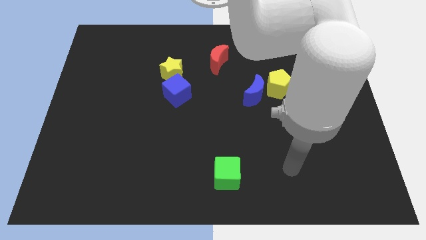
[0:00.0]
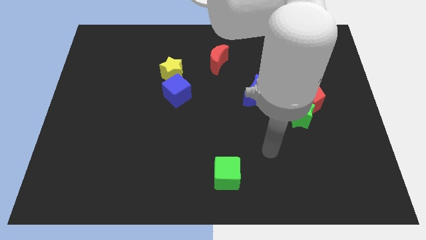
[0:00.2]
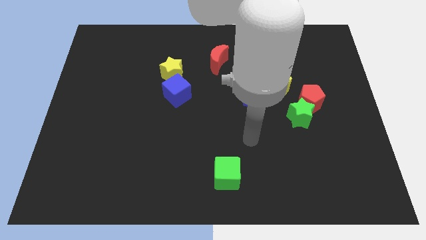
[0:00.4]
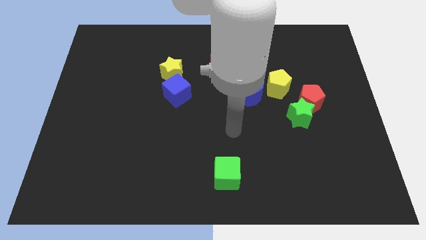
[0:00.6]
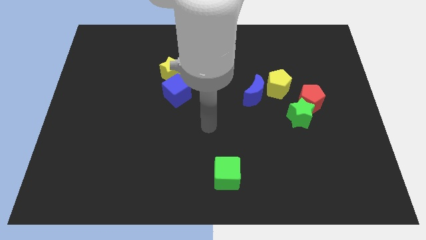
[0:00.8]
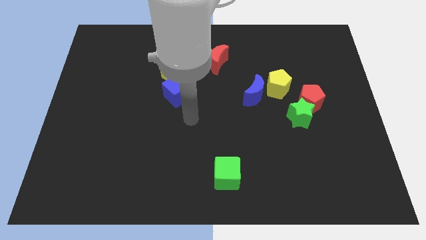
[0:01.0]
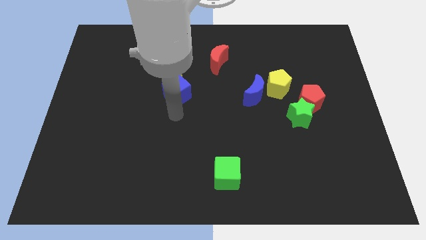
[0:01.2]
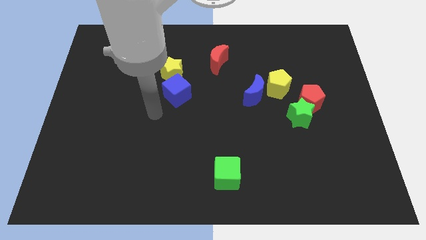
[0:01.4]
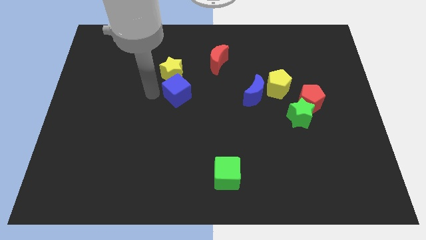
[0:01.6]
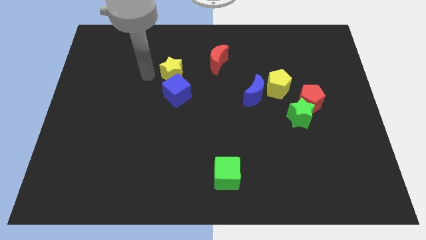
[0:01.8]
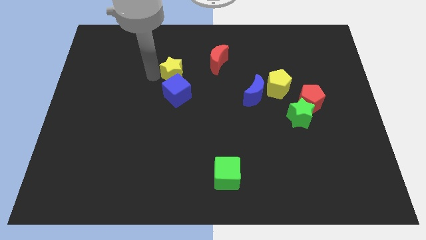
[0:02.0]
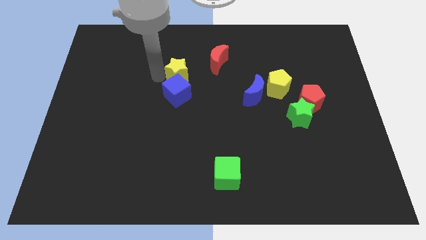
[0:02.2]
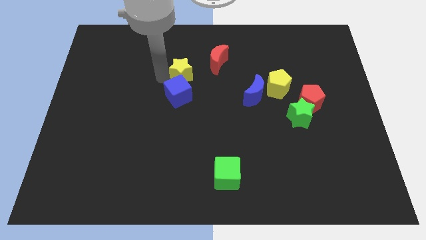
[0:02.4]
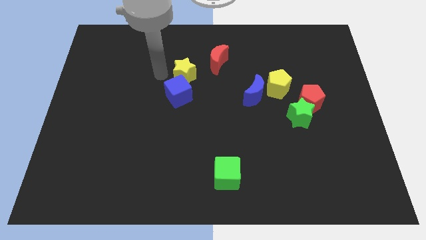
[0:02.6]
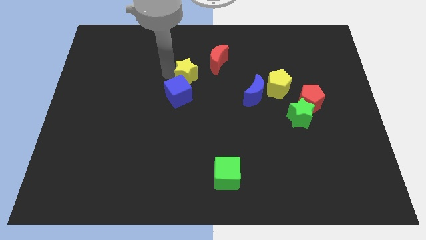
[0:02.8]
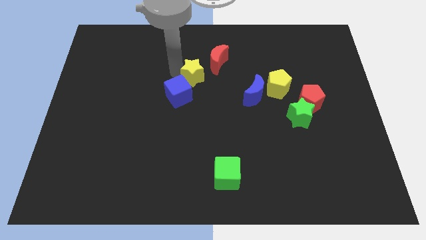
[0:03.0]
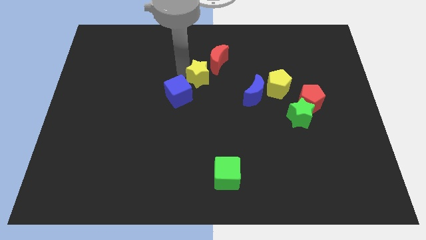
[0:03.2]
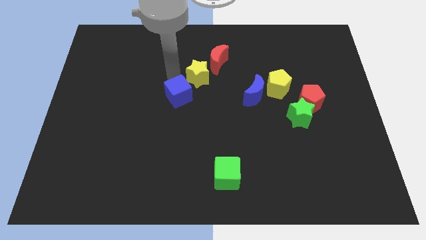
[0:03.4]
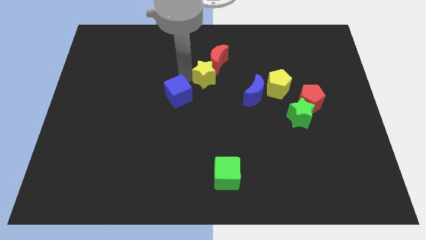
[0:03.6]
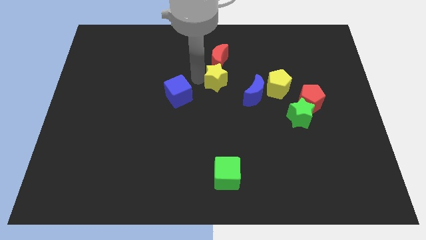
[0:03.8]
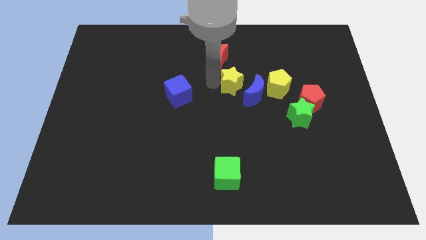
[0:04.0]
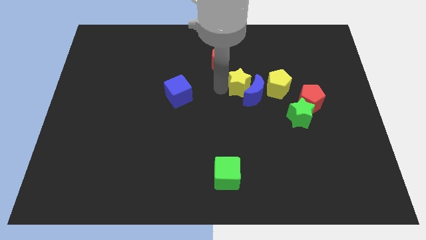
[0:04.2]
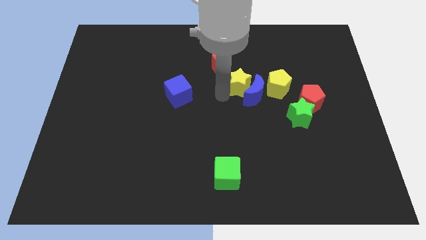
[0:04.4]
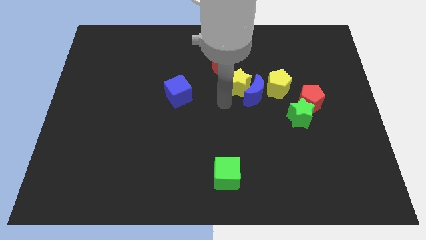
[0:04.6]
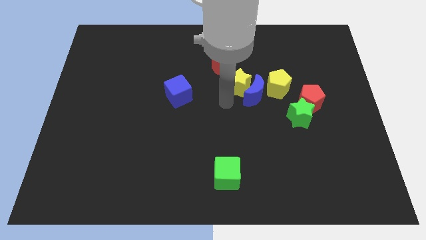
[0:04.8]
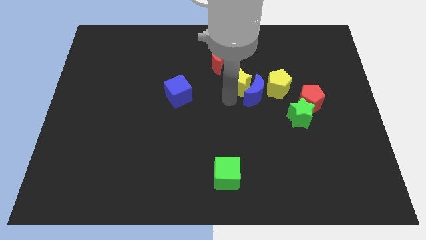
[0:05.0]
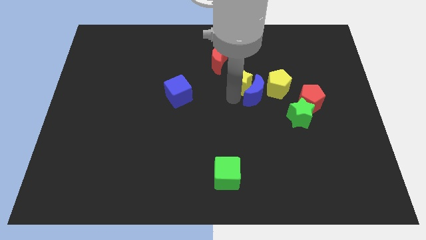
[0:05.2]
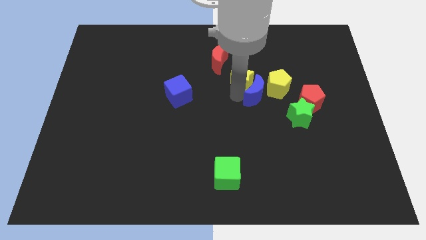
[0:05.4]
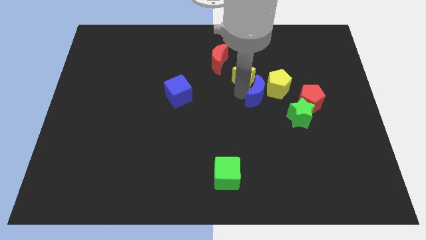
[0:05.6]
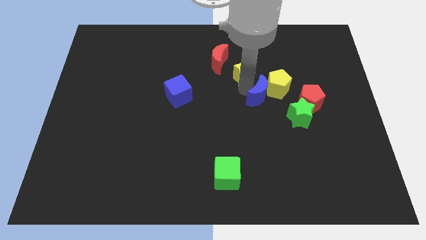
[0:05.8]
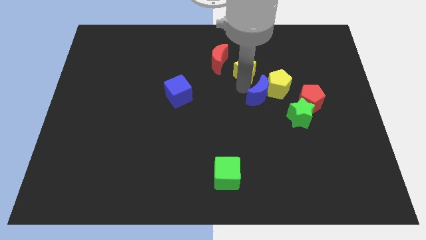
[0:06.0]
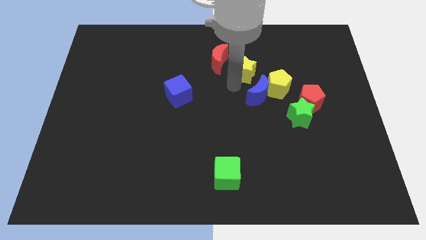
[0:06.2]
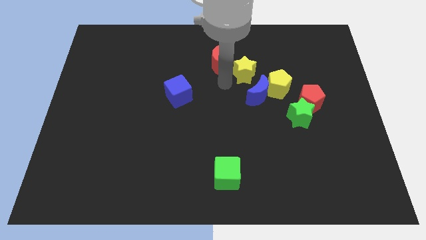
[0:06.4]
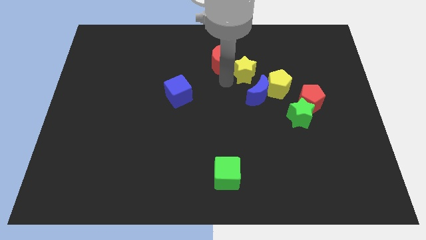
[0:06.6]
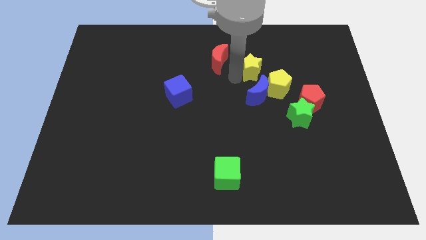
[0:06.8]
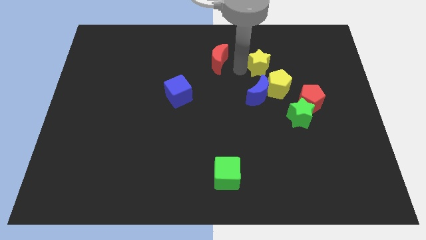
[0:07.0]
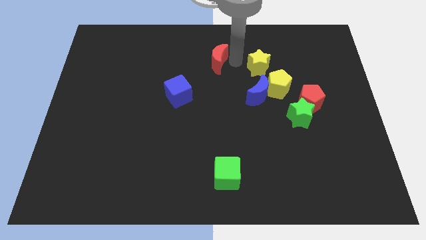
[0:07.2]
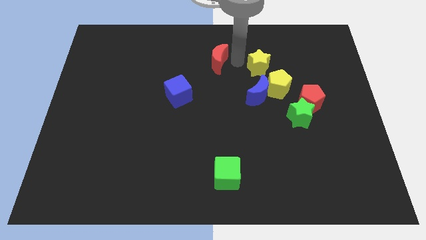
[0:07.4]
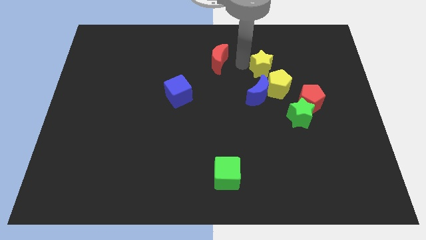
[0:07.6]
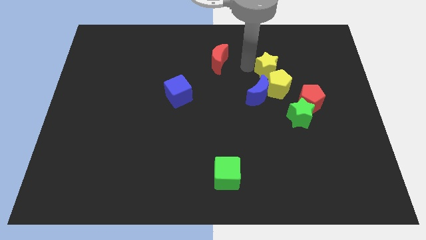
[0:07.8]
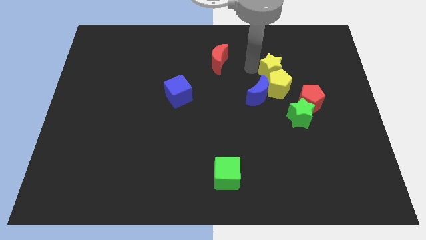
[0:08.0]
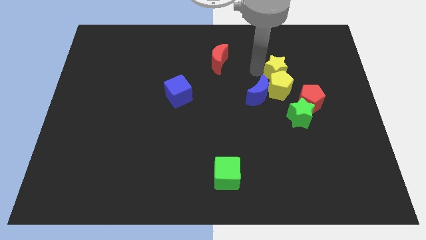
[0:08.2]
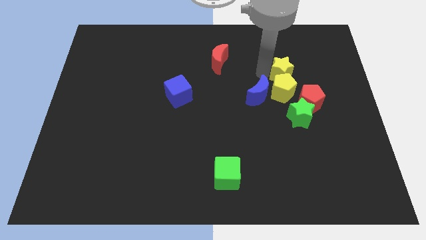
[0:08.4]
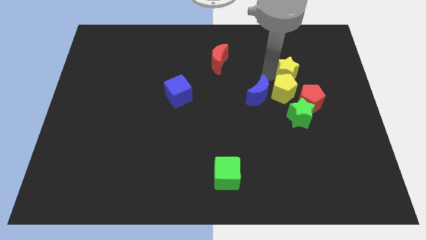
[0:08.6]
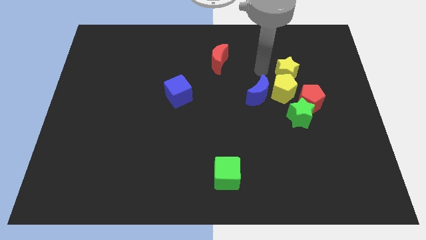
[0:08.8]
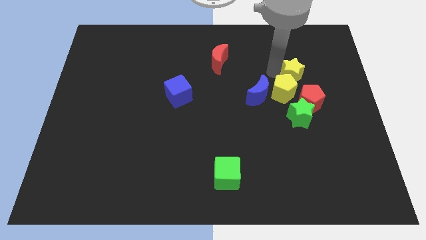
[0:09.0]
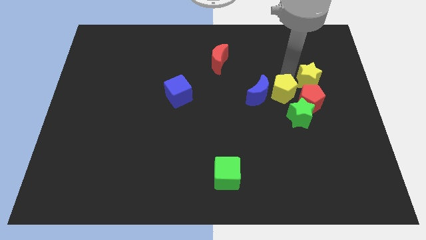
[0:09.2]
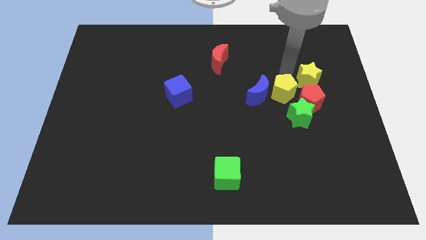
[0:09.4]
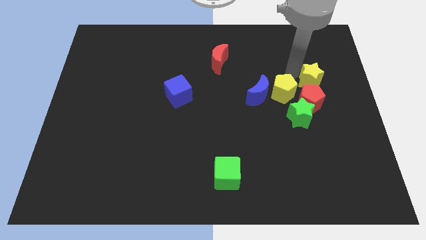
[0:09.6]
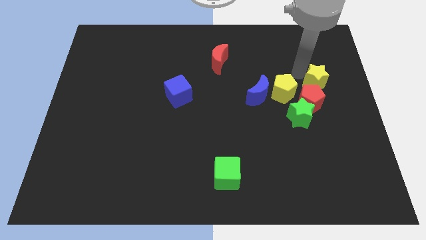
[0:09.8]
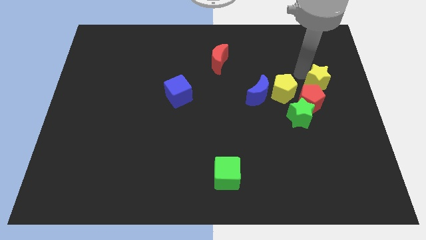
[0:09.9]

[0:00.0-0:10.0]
push the yellow star to the right side

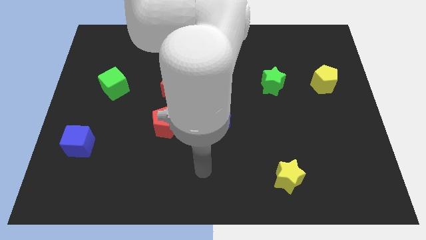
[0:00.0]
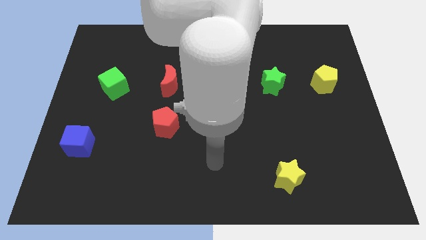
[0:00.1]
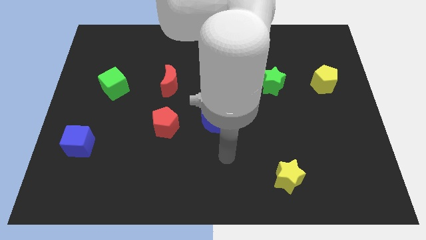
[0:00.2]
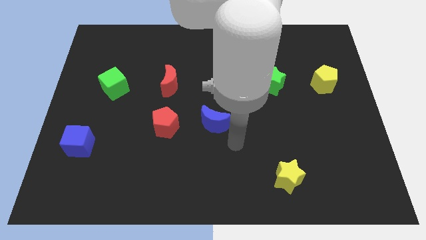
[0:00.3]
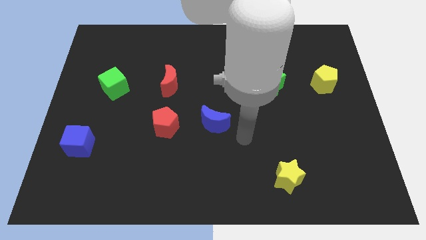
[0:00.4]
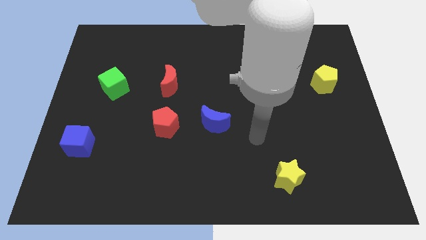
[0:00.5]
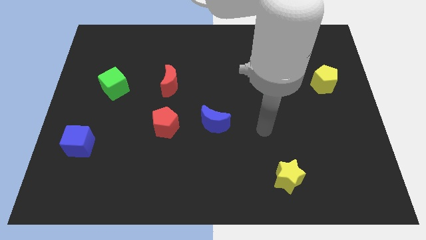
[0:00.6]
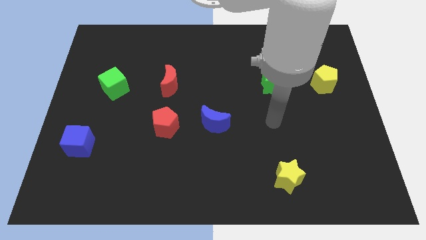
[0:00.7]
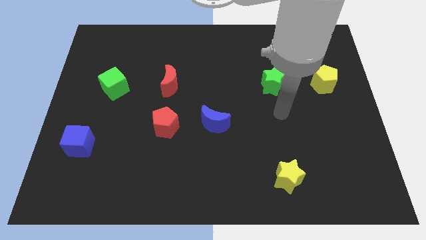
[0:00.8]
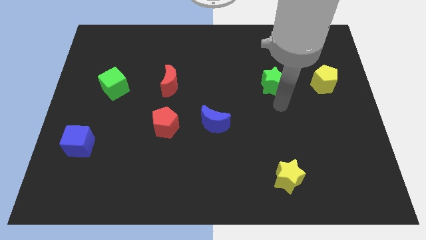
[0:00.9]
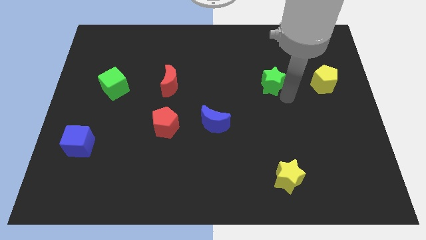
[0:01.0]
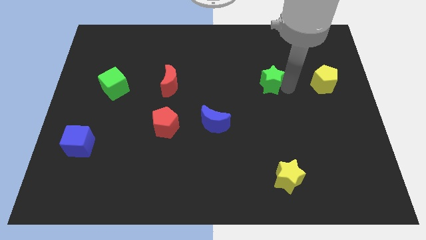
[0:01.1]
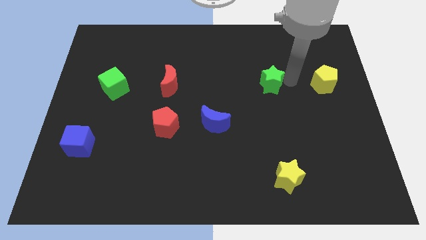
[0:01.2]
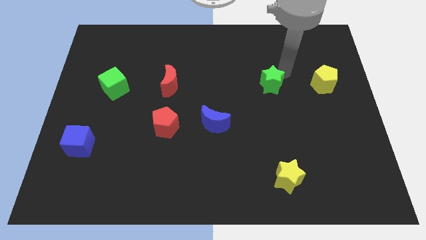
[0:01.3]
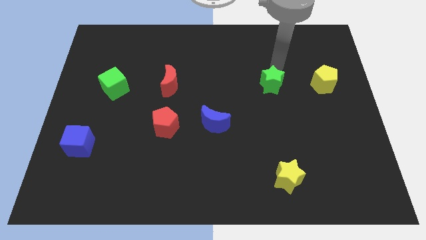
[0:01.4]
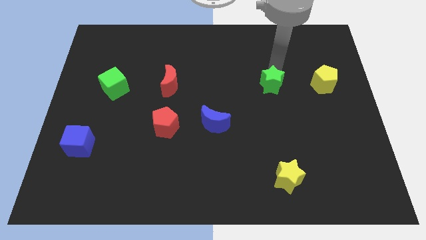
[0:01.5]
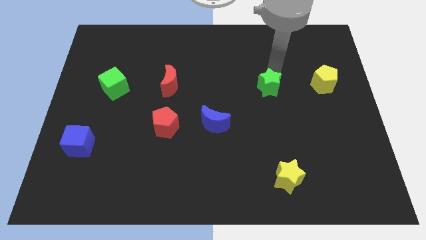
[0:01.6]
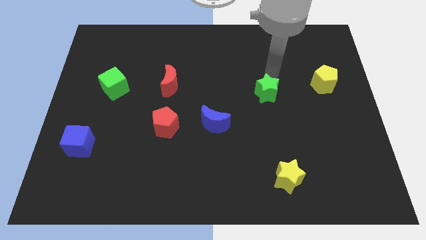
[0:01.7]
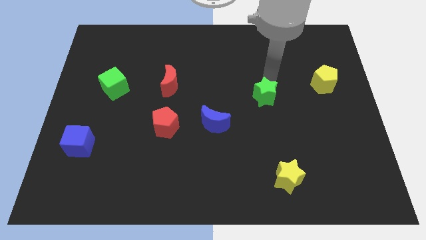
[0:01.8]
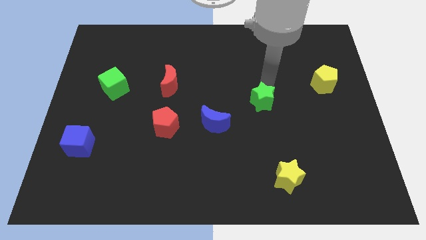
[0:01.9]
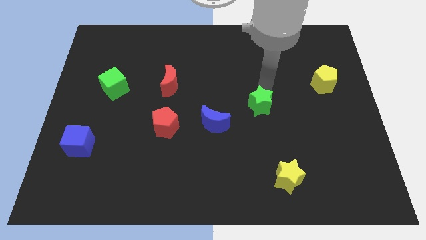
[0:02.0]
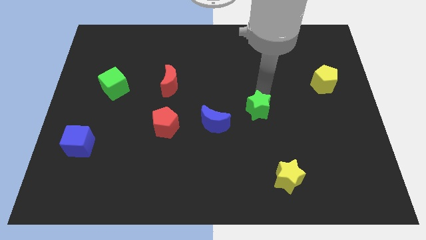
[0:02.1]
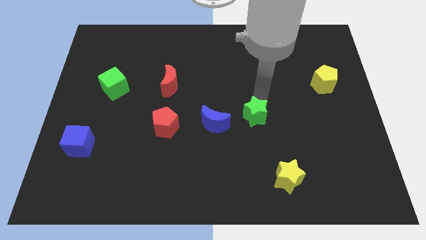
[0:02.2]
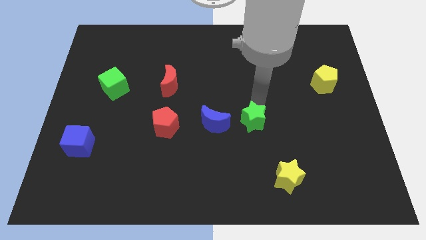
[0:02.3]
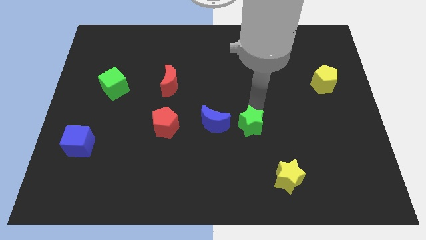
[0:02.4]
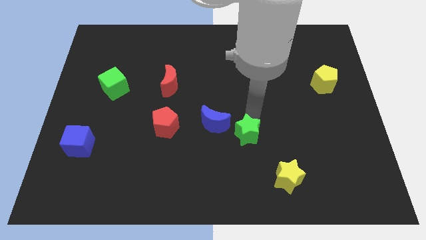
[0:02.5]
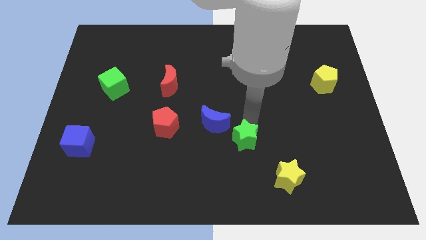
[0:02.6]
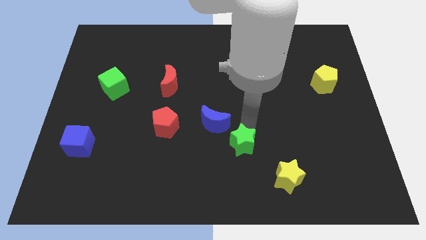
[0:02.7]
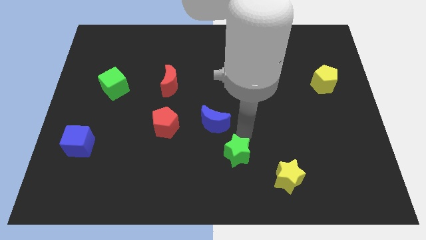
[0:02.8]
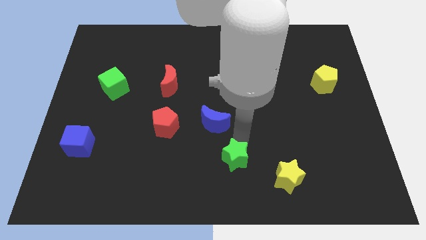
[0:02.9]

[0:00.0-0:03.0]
move the green star to the bottom
